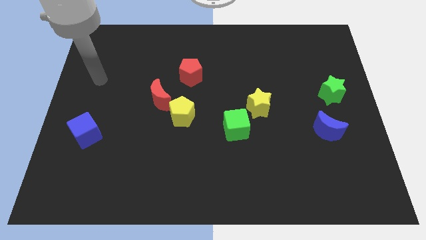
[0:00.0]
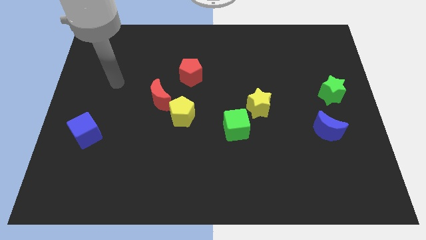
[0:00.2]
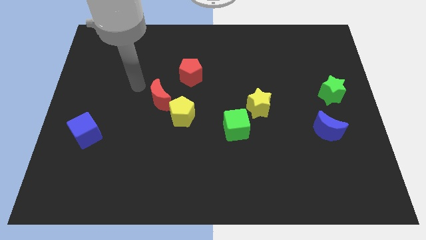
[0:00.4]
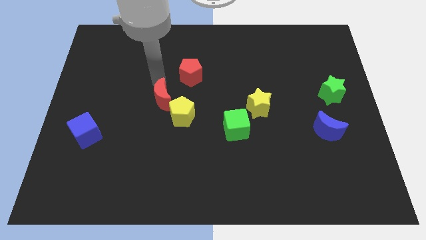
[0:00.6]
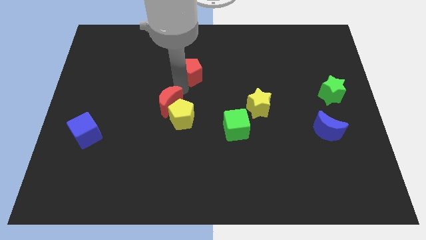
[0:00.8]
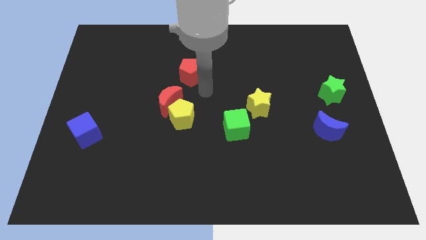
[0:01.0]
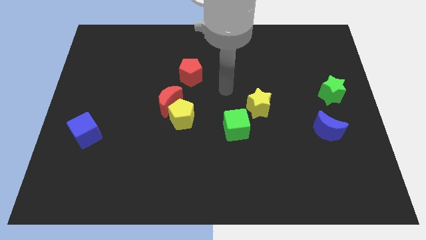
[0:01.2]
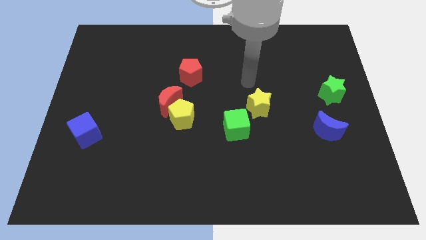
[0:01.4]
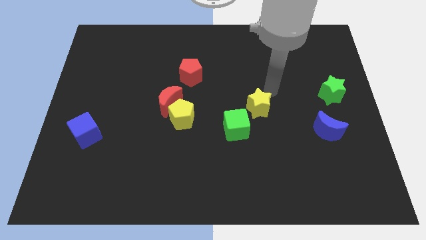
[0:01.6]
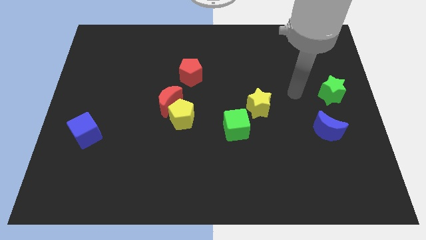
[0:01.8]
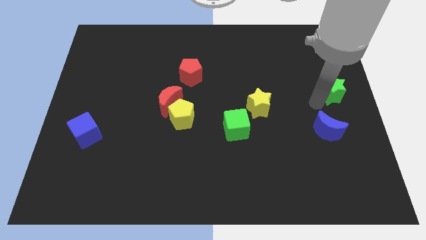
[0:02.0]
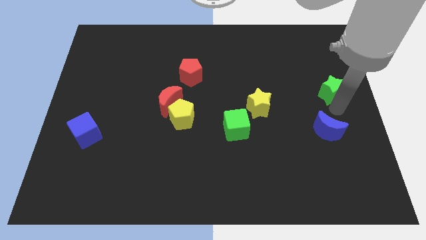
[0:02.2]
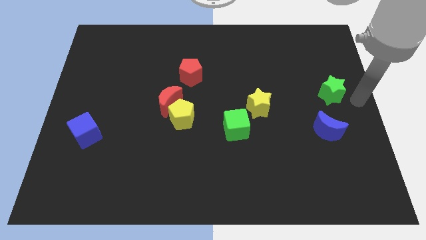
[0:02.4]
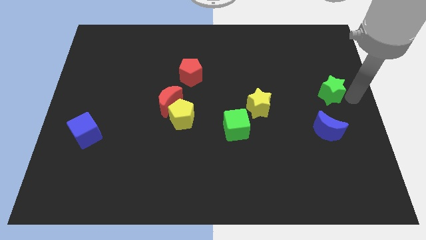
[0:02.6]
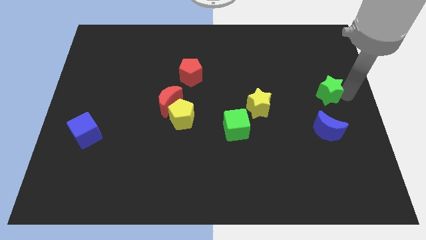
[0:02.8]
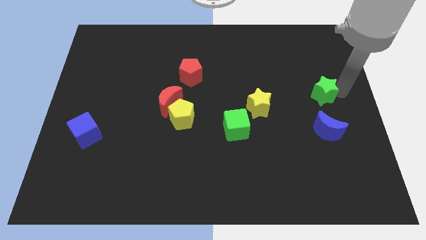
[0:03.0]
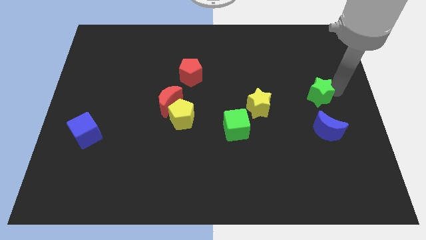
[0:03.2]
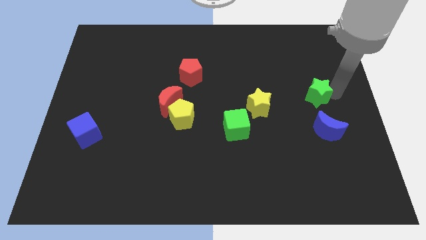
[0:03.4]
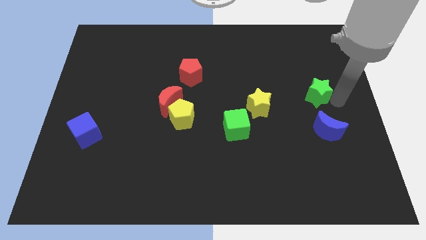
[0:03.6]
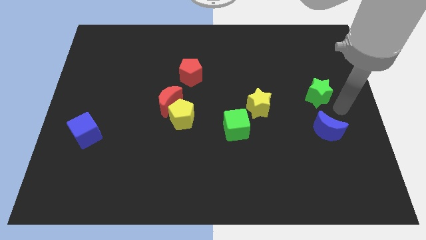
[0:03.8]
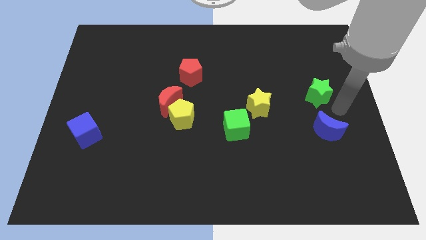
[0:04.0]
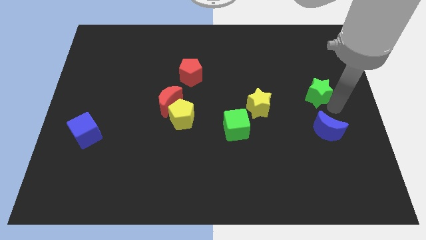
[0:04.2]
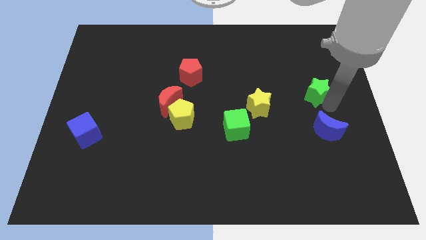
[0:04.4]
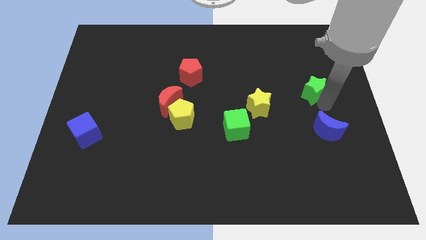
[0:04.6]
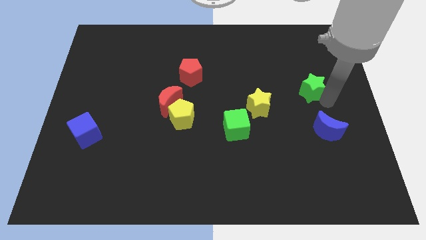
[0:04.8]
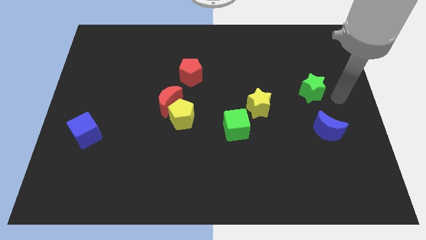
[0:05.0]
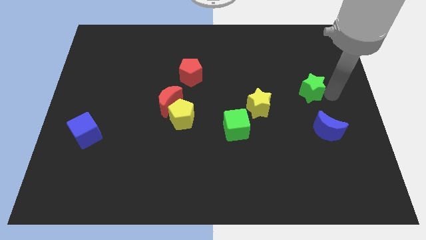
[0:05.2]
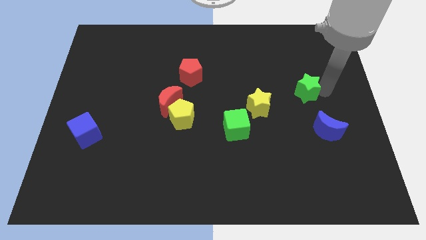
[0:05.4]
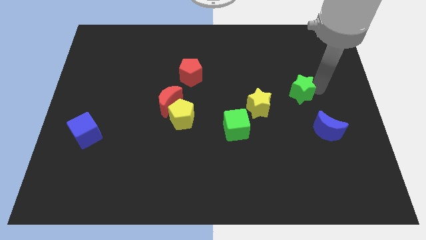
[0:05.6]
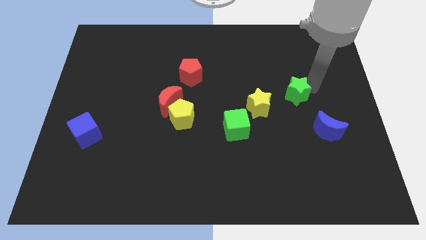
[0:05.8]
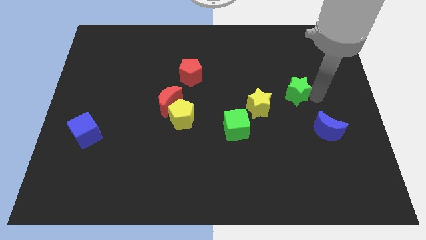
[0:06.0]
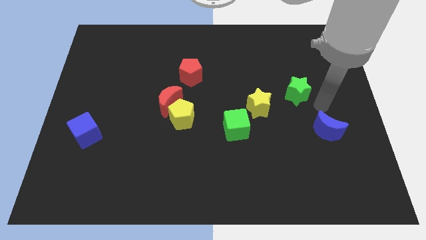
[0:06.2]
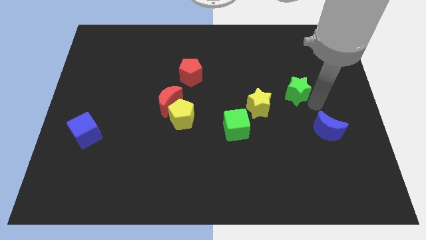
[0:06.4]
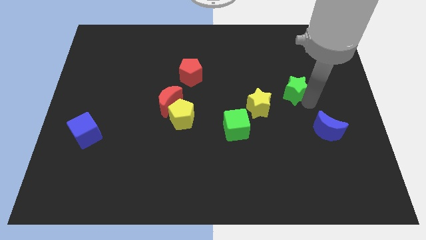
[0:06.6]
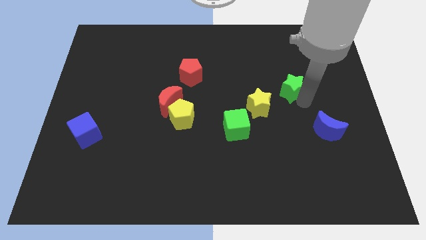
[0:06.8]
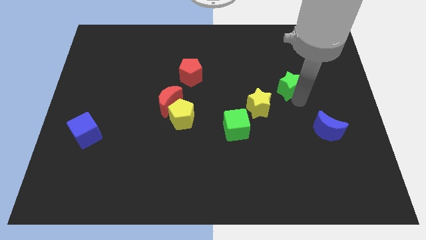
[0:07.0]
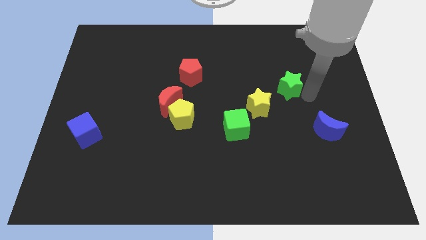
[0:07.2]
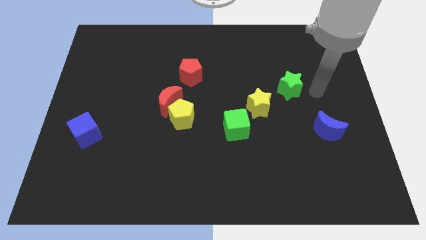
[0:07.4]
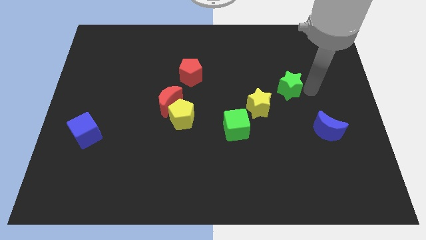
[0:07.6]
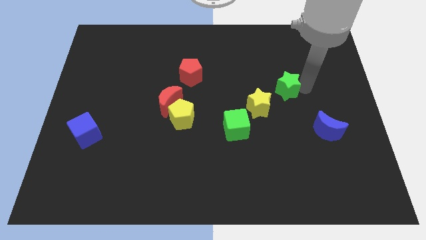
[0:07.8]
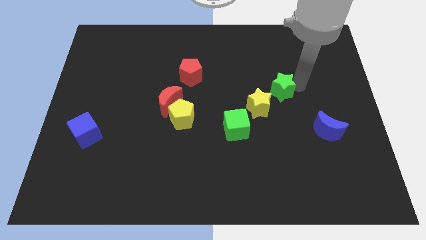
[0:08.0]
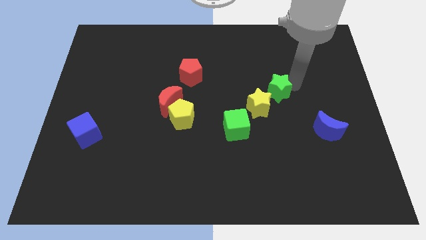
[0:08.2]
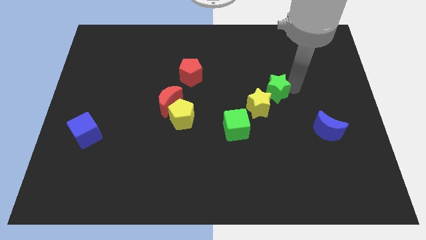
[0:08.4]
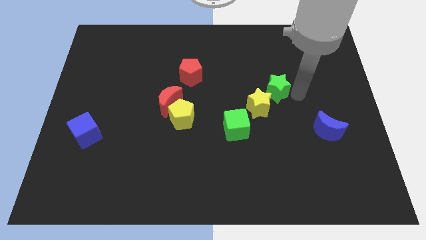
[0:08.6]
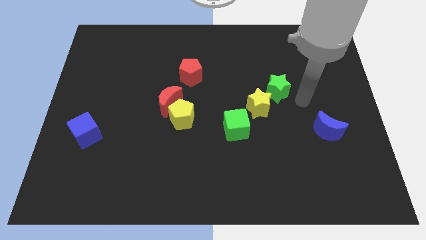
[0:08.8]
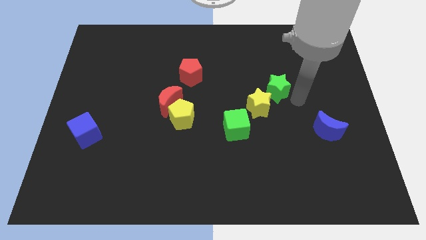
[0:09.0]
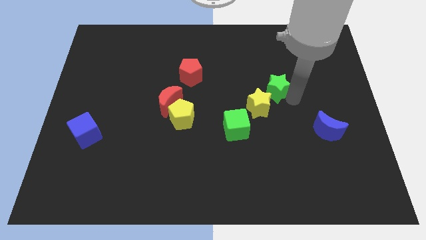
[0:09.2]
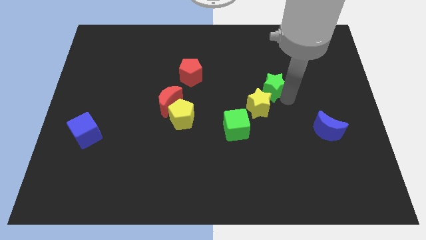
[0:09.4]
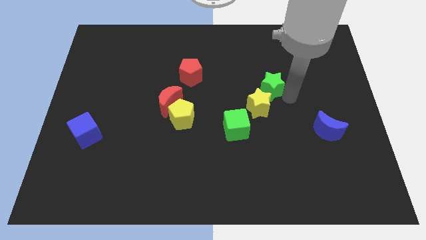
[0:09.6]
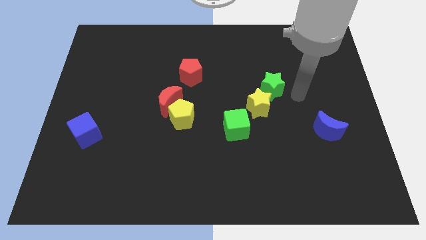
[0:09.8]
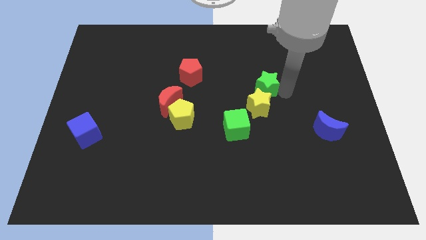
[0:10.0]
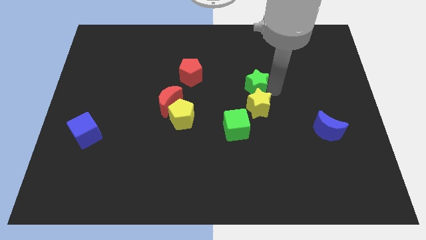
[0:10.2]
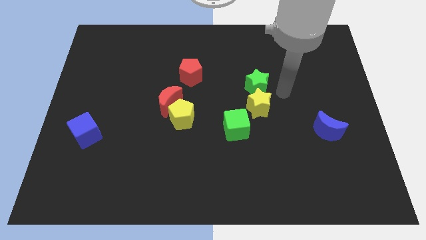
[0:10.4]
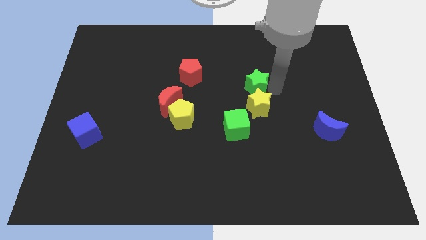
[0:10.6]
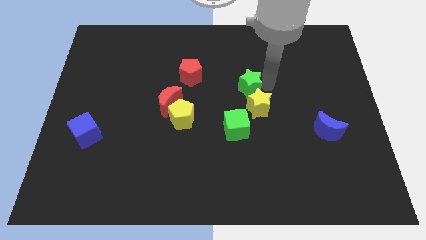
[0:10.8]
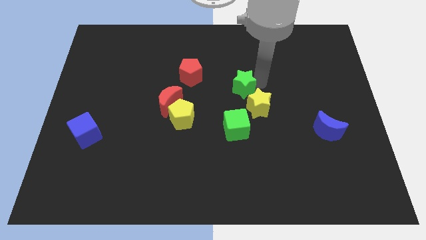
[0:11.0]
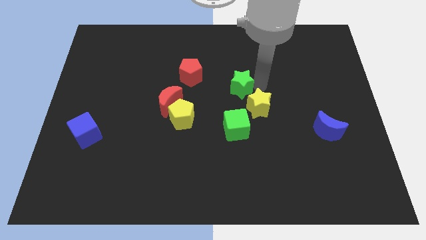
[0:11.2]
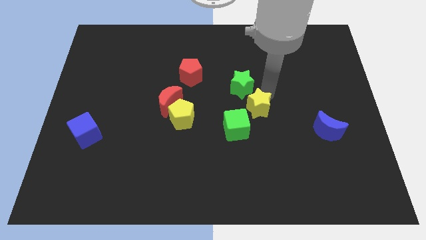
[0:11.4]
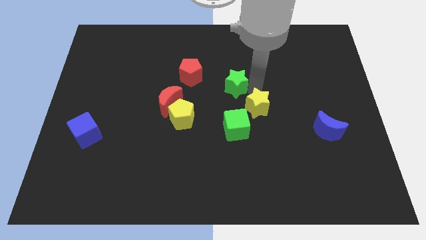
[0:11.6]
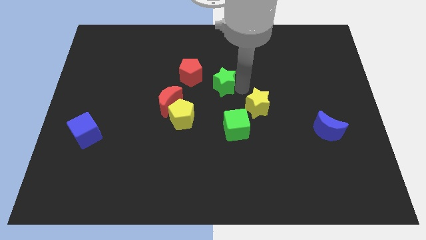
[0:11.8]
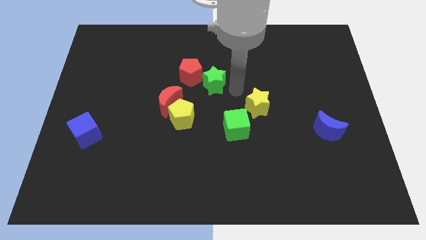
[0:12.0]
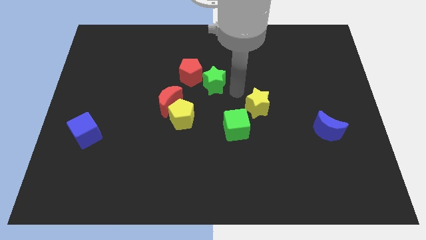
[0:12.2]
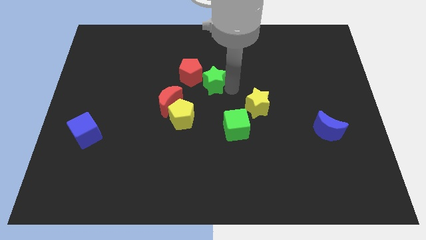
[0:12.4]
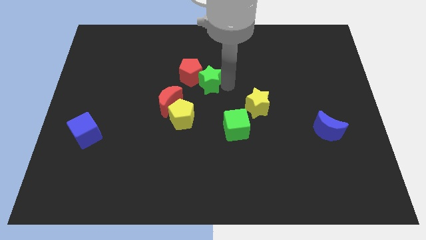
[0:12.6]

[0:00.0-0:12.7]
slide the green star close to the red pentagon
